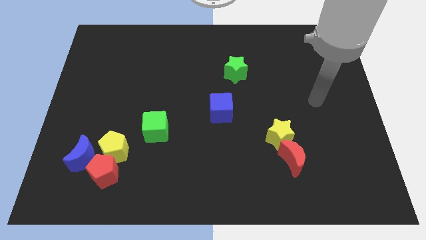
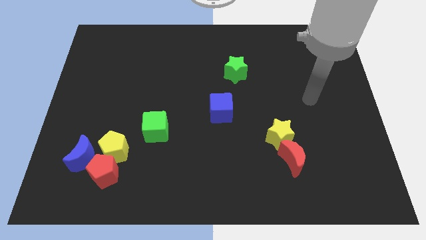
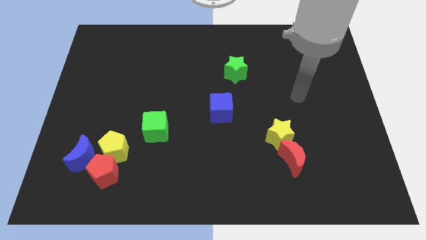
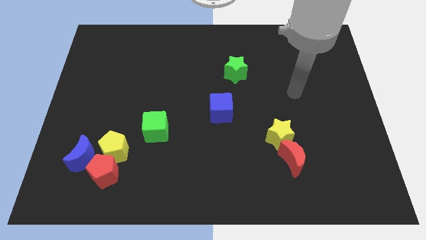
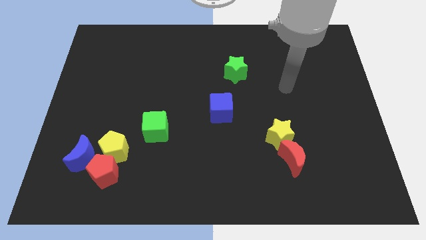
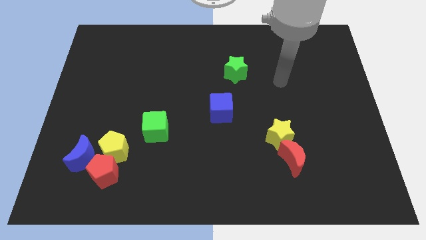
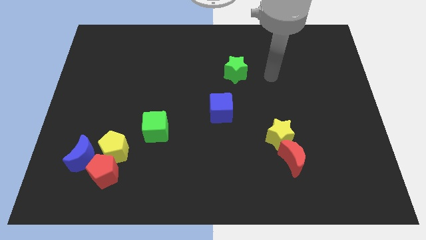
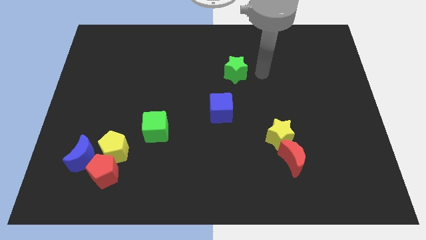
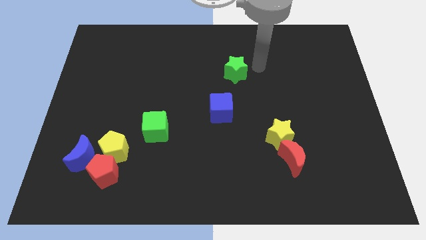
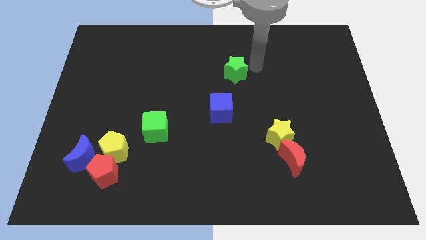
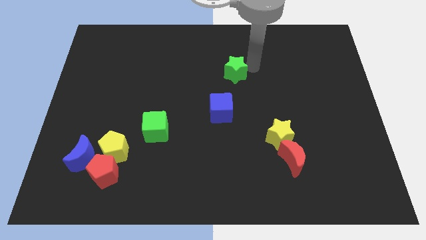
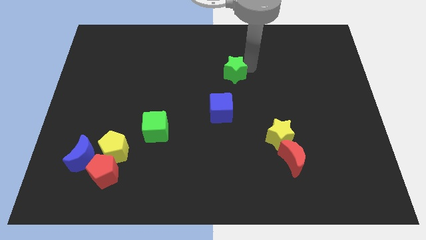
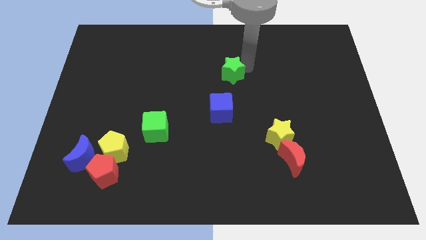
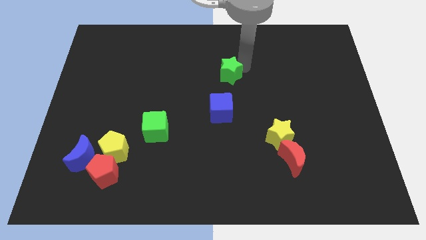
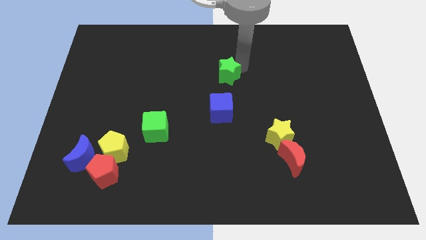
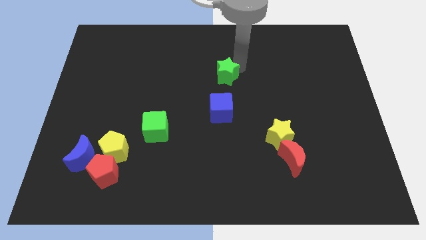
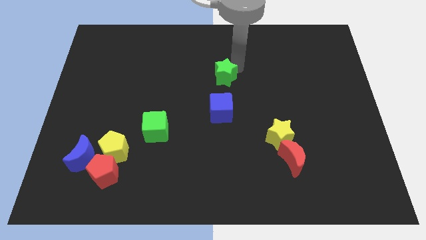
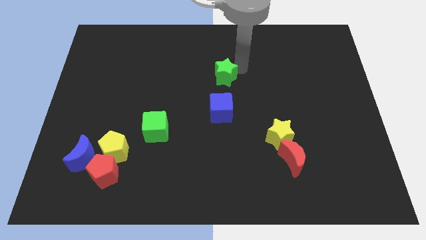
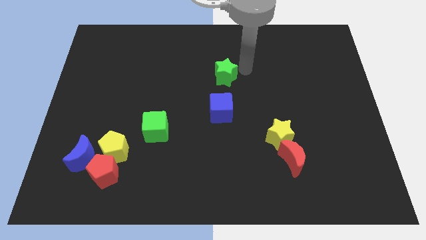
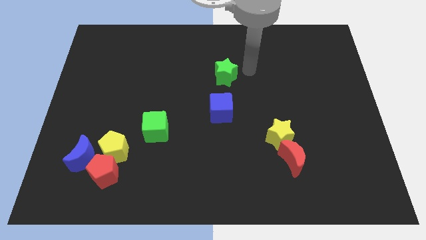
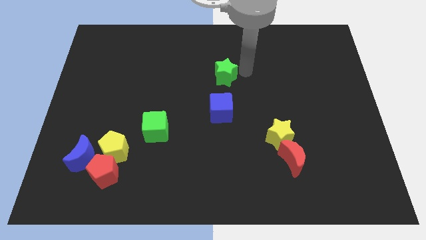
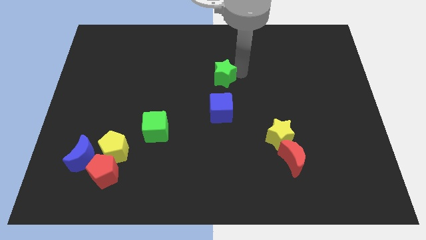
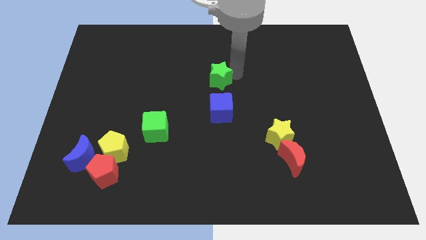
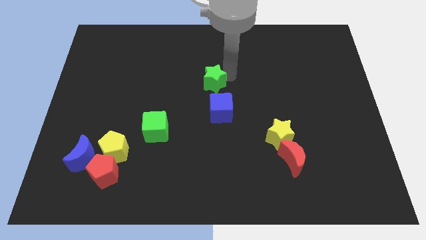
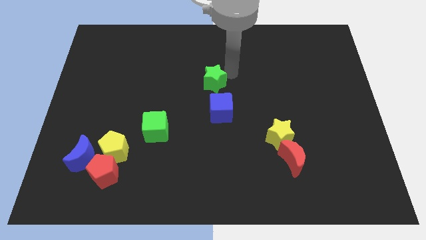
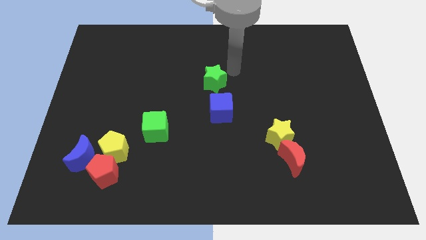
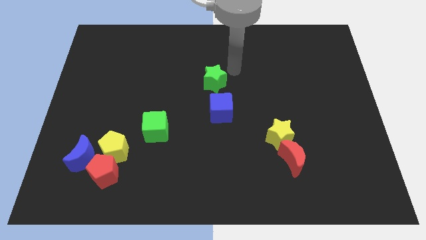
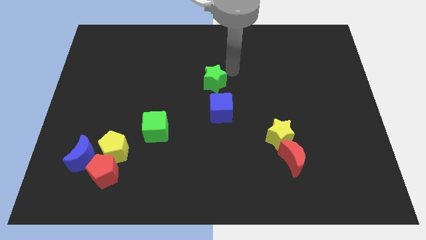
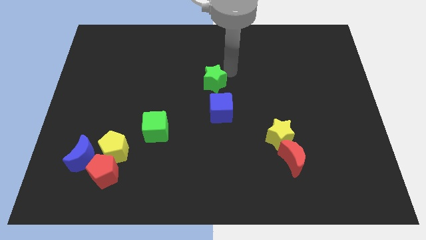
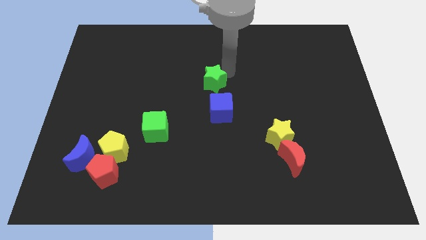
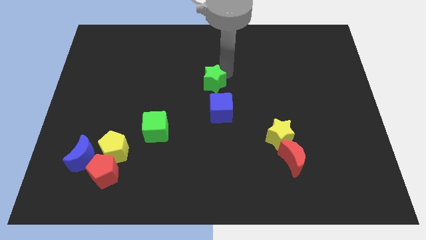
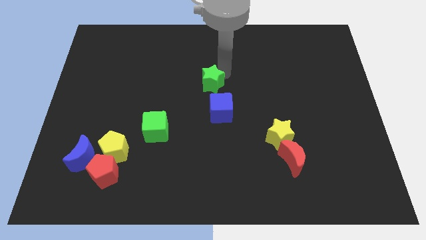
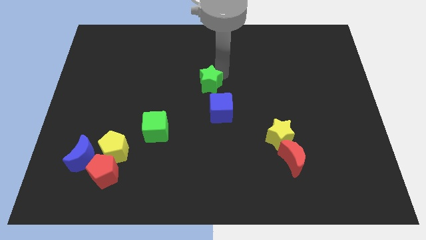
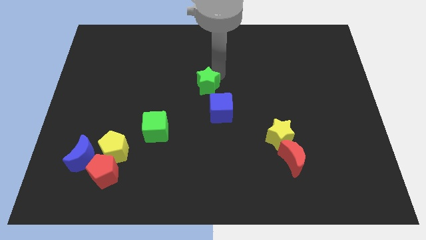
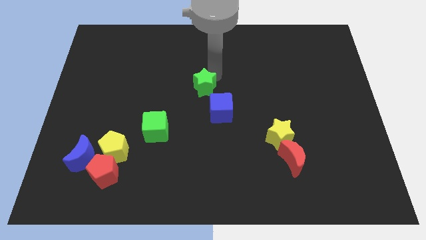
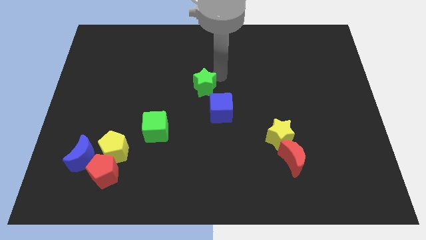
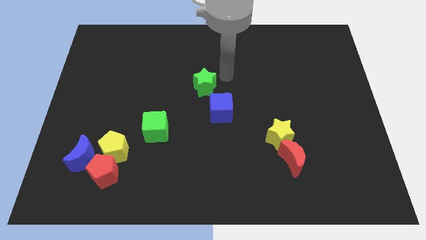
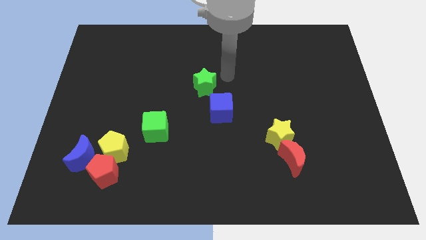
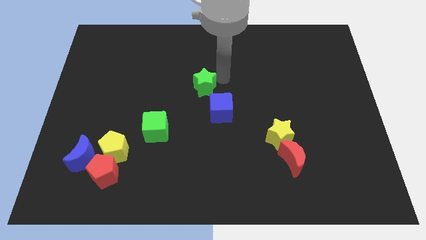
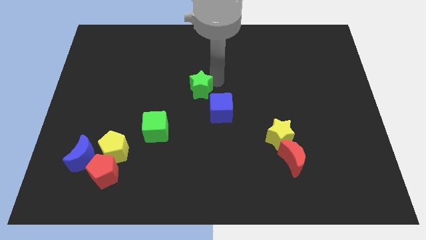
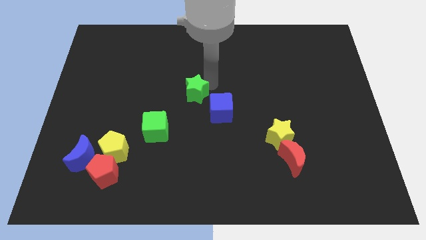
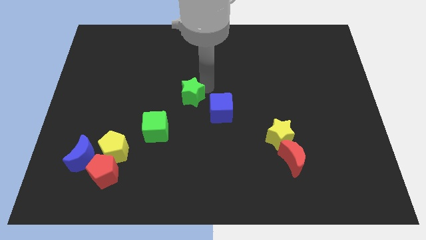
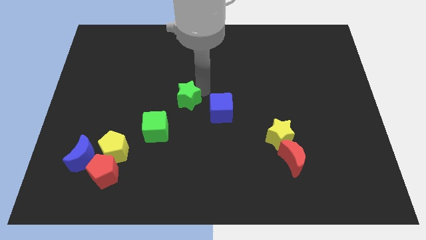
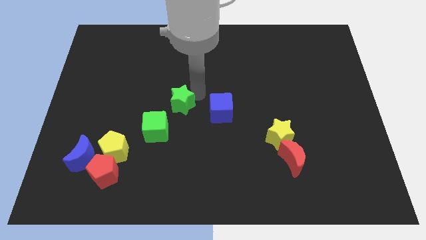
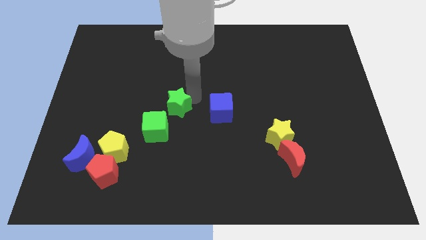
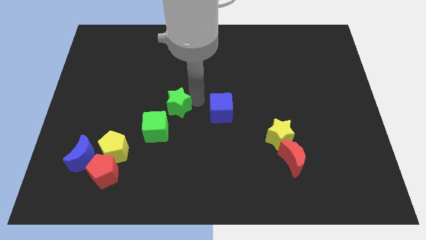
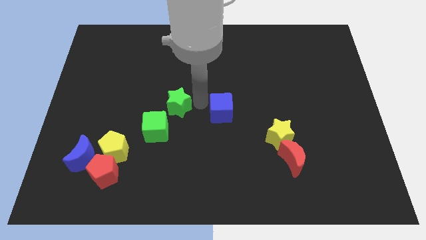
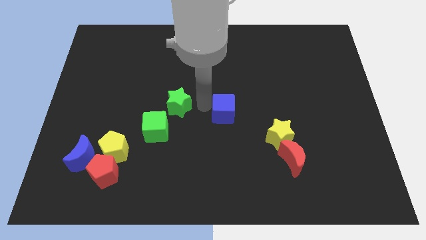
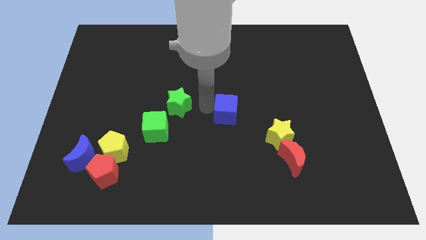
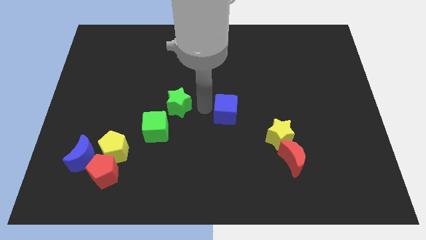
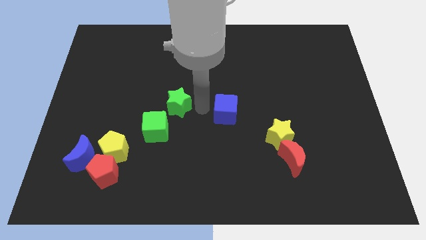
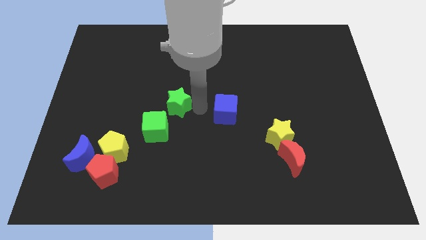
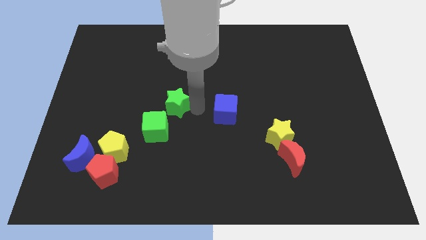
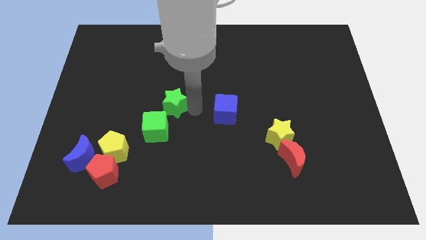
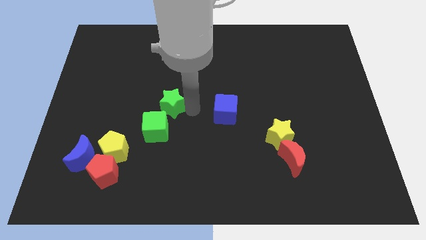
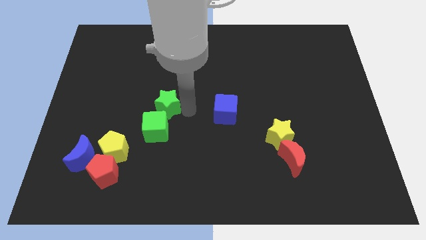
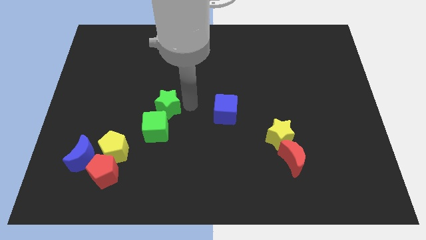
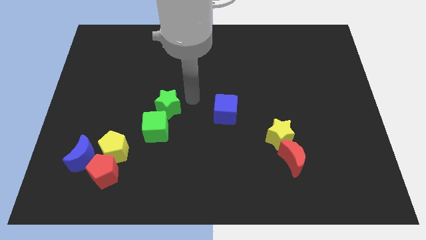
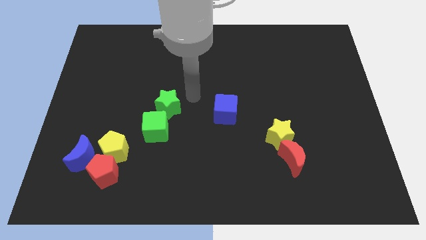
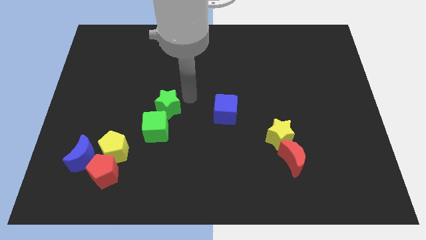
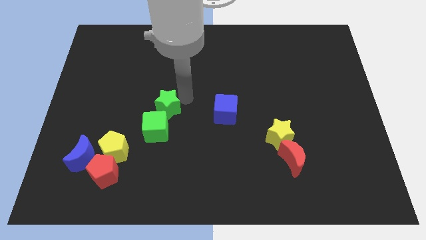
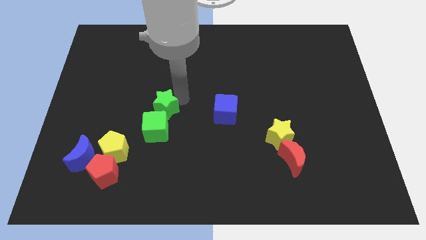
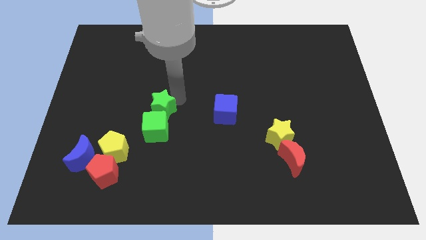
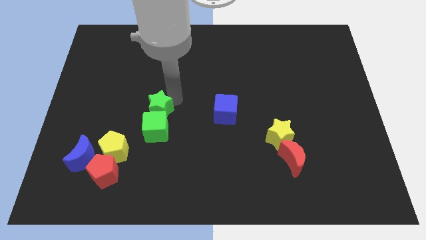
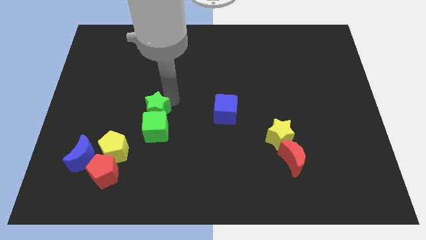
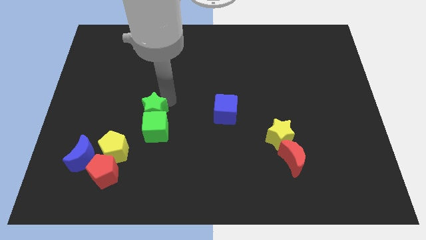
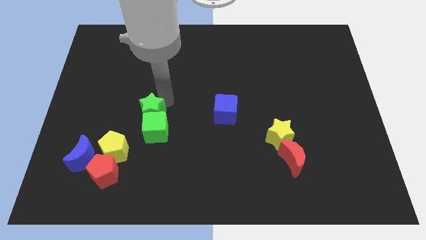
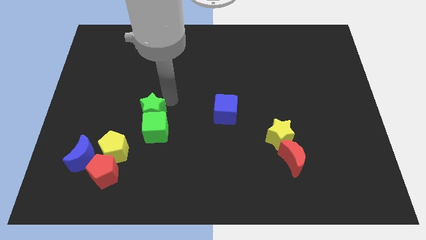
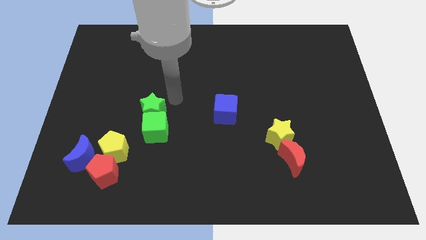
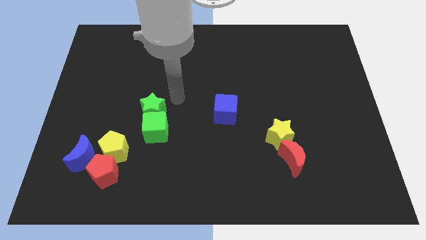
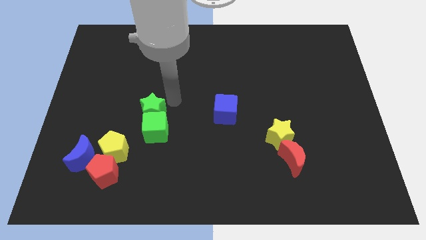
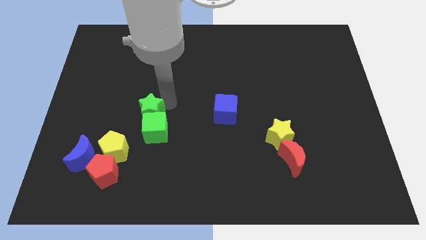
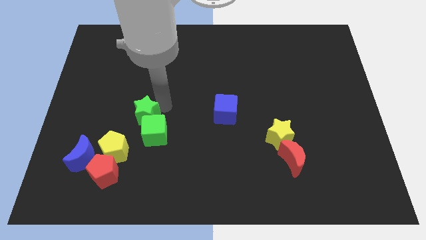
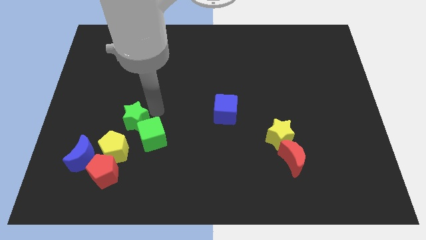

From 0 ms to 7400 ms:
put the green star to the left side of the green cube
